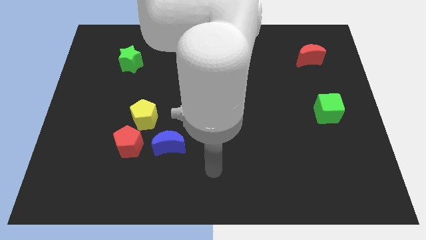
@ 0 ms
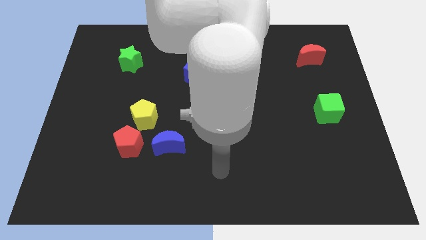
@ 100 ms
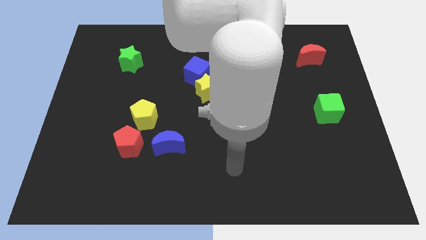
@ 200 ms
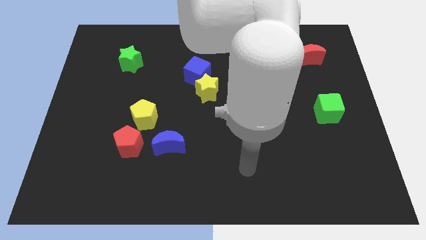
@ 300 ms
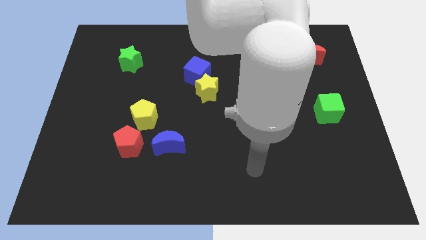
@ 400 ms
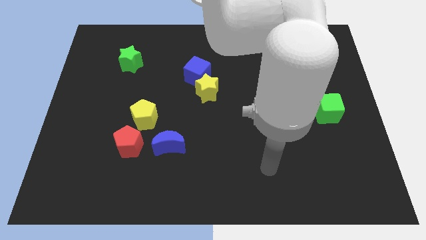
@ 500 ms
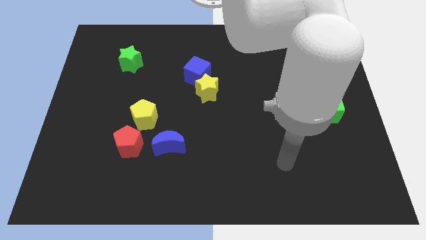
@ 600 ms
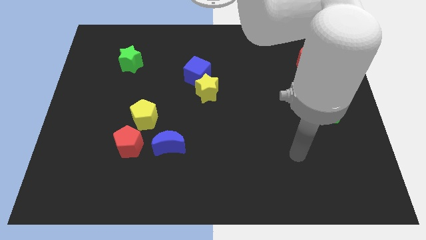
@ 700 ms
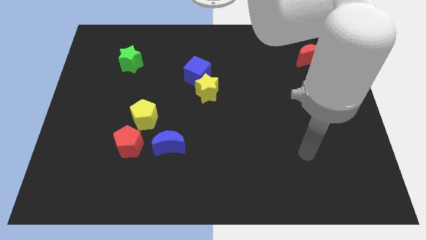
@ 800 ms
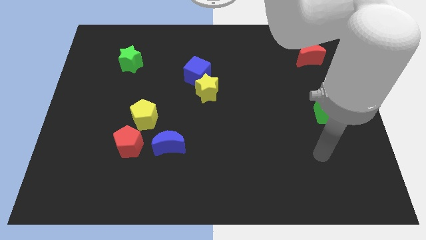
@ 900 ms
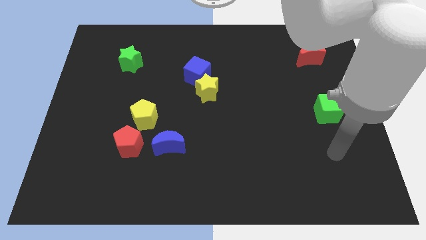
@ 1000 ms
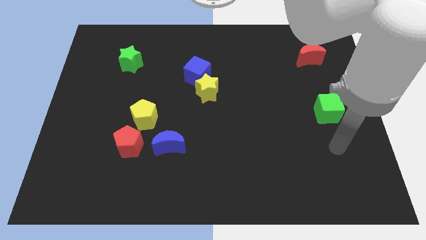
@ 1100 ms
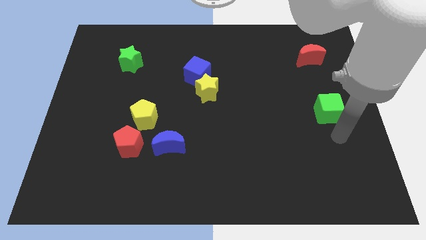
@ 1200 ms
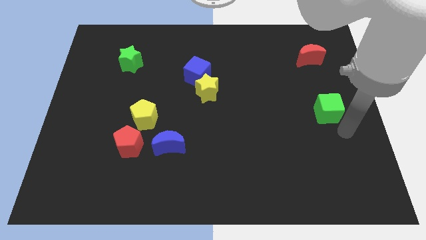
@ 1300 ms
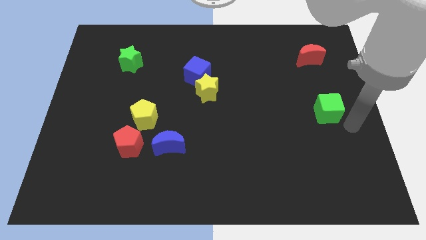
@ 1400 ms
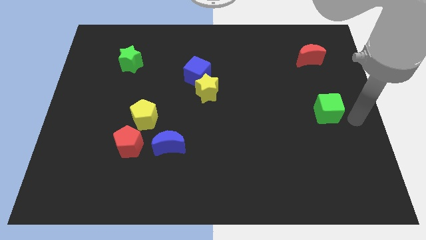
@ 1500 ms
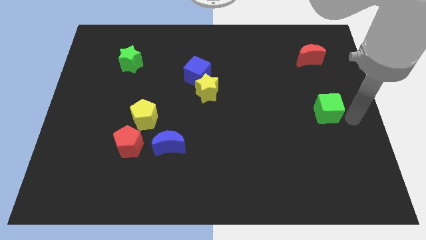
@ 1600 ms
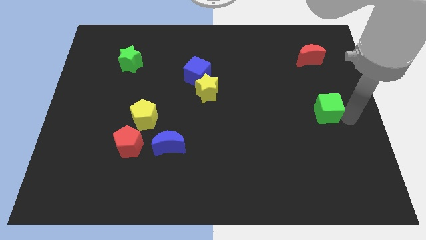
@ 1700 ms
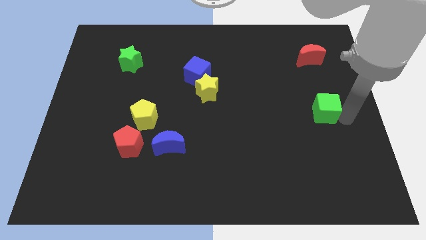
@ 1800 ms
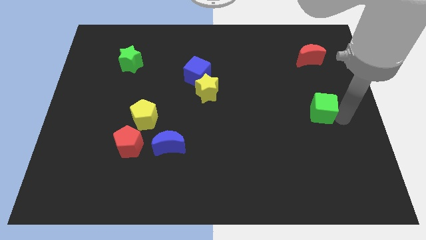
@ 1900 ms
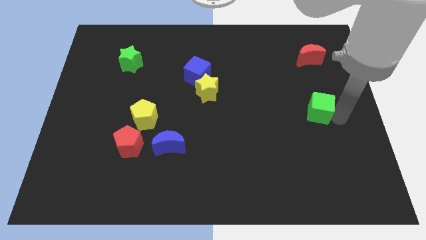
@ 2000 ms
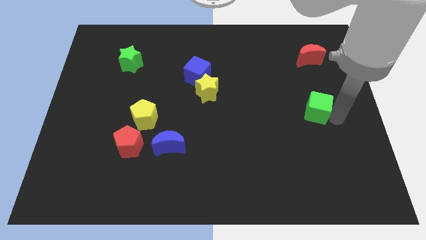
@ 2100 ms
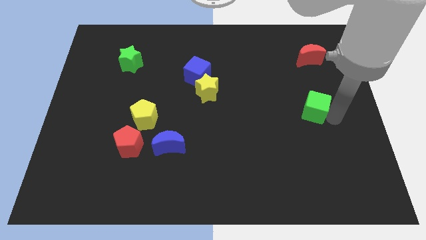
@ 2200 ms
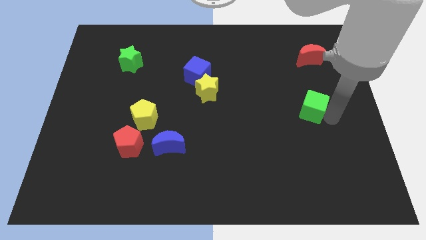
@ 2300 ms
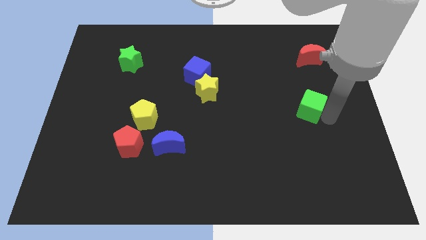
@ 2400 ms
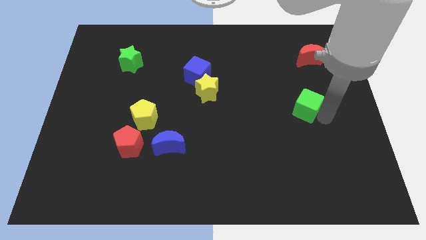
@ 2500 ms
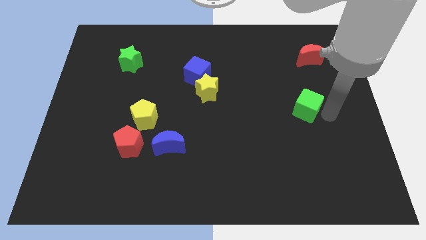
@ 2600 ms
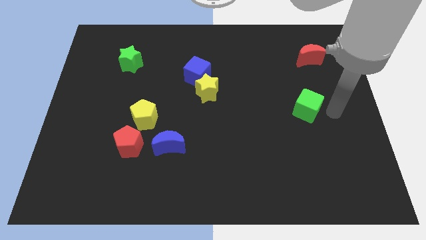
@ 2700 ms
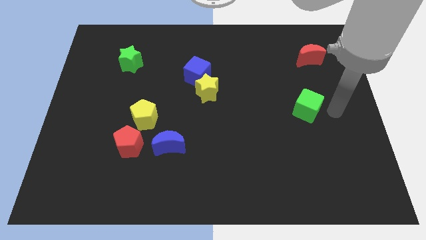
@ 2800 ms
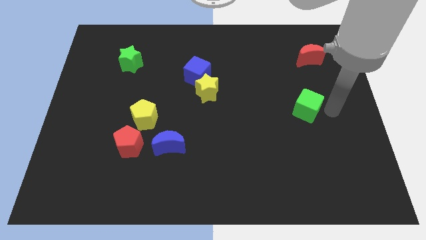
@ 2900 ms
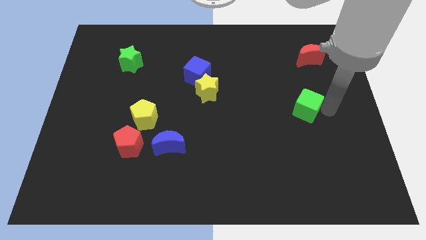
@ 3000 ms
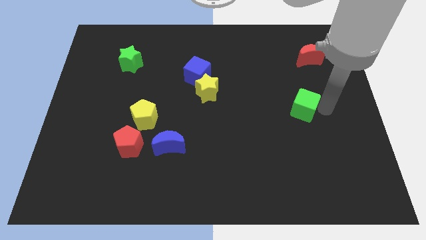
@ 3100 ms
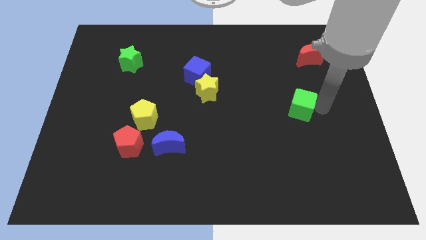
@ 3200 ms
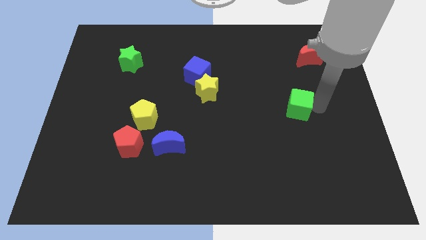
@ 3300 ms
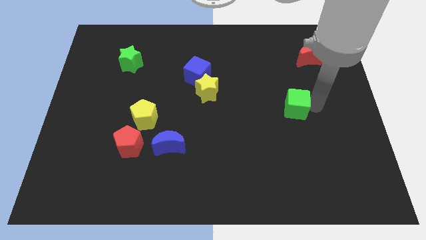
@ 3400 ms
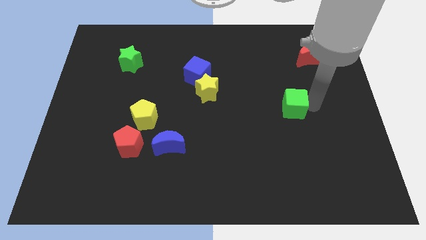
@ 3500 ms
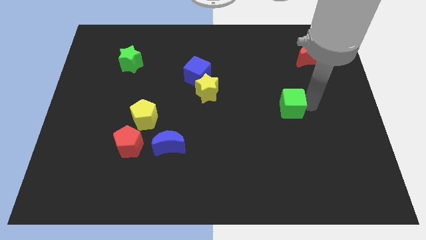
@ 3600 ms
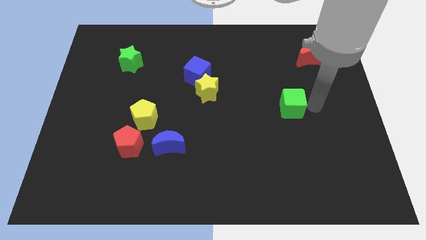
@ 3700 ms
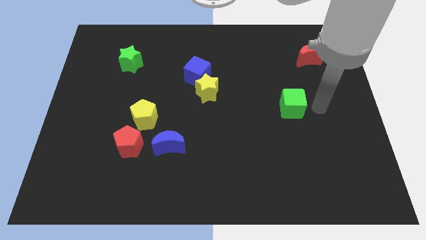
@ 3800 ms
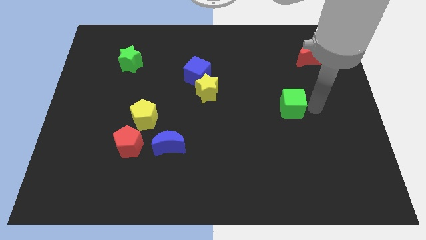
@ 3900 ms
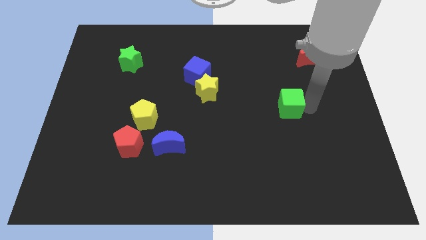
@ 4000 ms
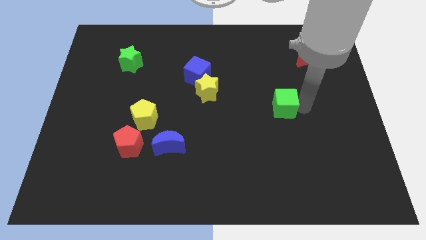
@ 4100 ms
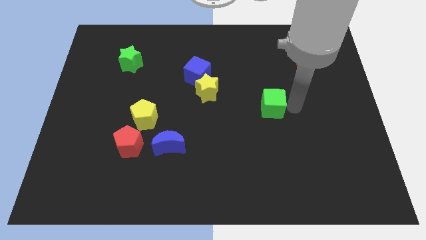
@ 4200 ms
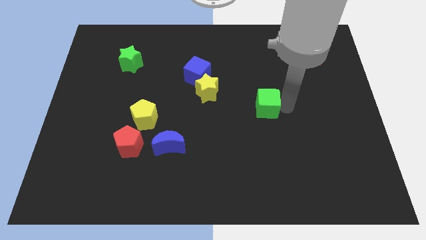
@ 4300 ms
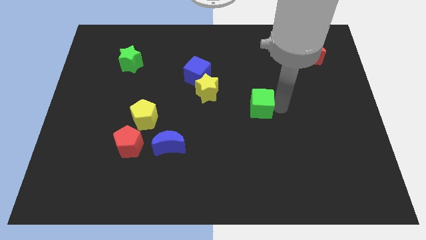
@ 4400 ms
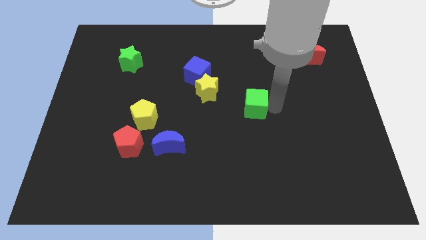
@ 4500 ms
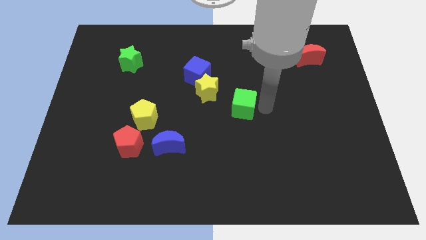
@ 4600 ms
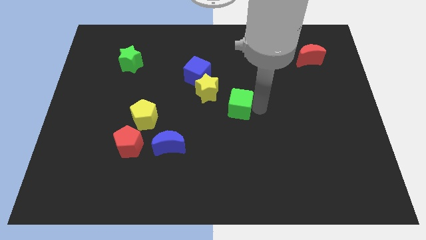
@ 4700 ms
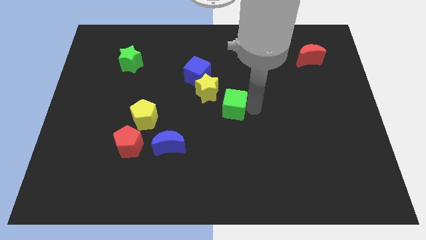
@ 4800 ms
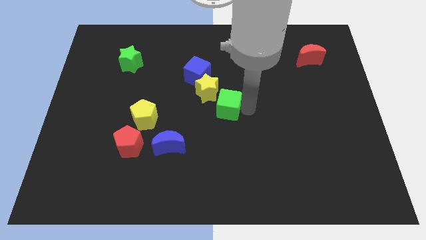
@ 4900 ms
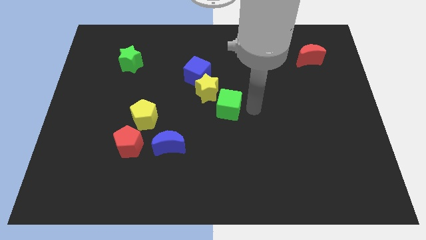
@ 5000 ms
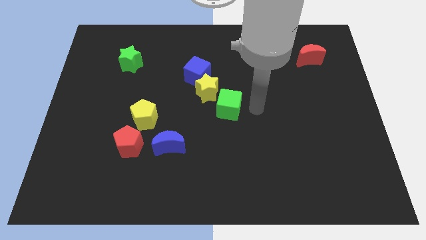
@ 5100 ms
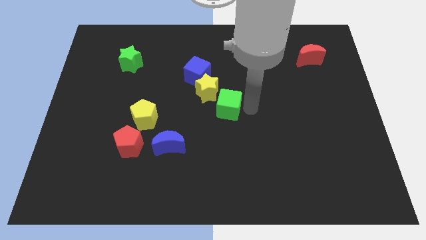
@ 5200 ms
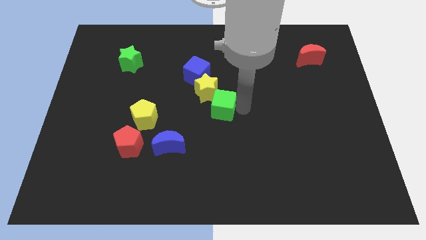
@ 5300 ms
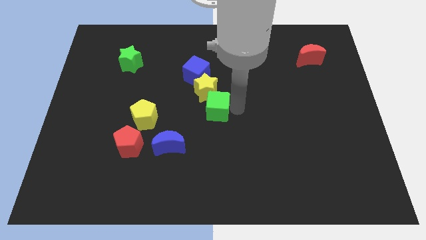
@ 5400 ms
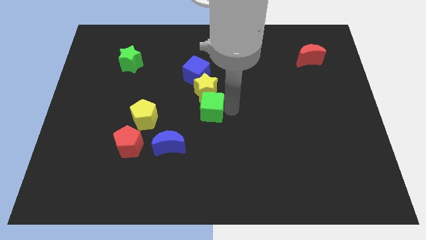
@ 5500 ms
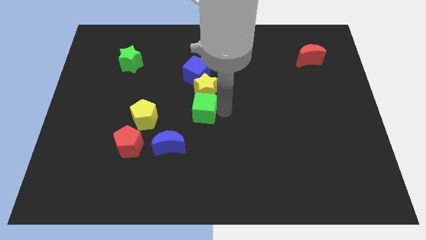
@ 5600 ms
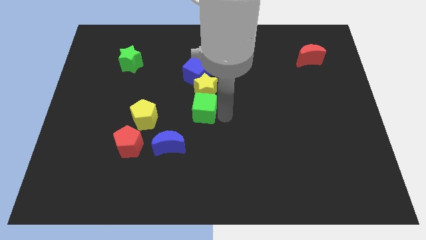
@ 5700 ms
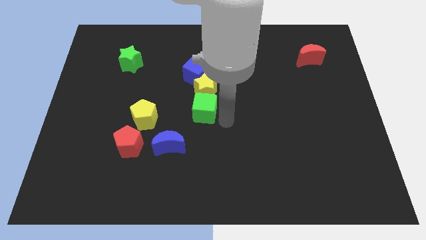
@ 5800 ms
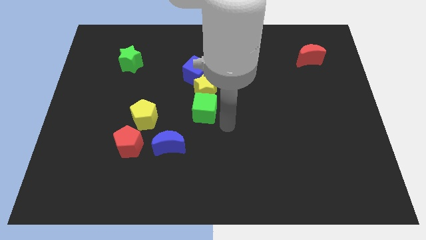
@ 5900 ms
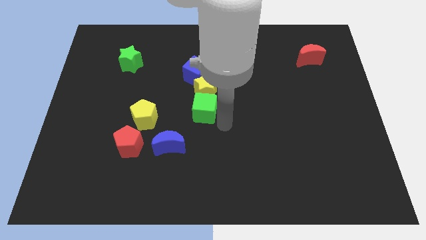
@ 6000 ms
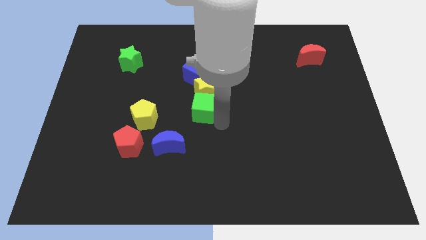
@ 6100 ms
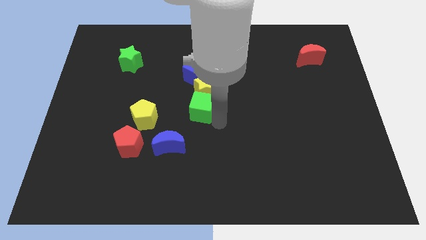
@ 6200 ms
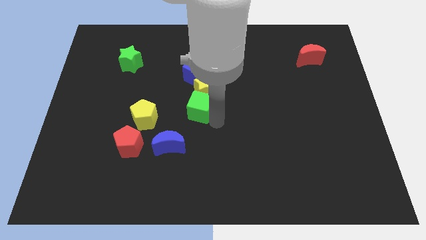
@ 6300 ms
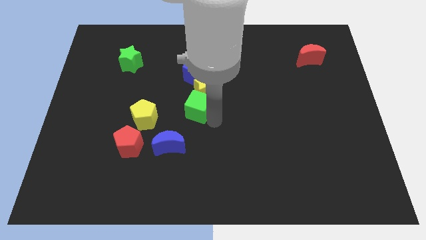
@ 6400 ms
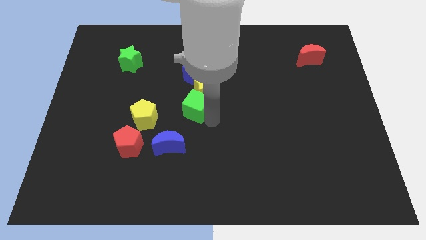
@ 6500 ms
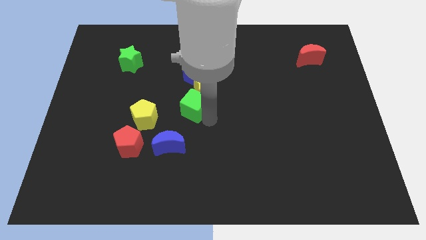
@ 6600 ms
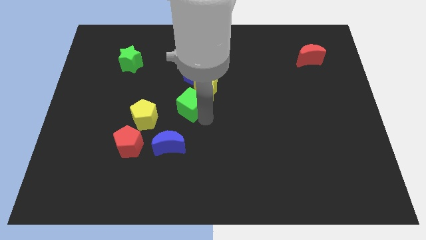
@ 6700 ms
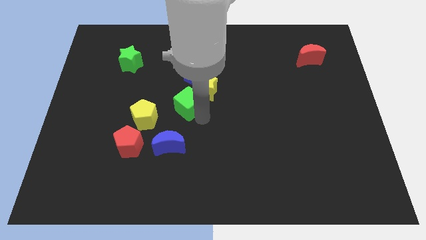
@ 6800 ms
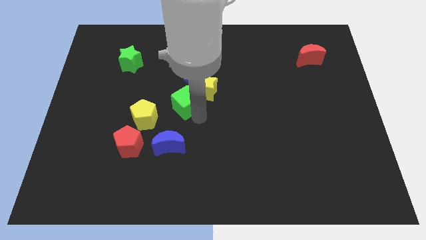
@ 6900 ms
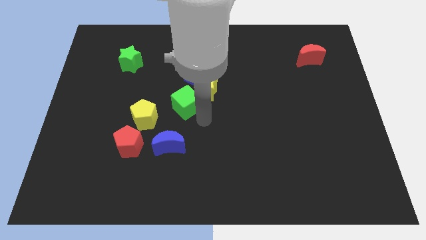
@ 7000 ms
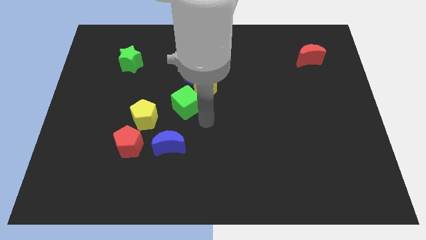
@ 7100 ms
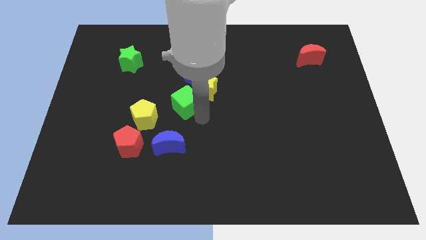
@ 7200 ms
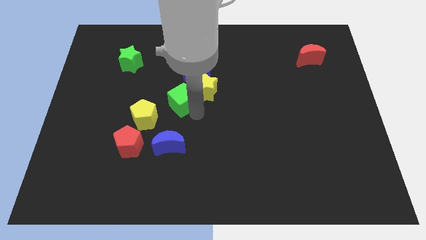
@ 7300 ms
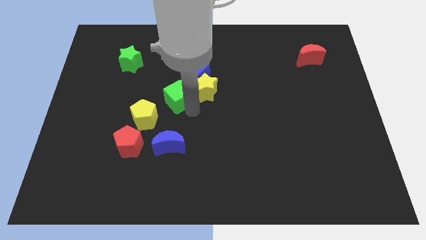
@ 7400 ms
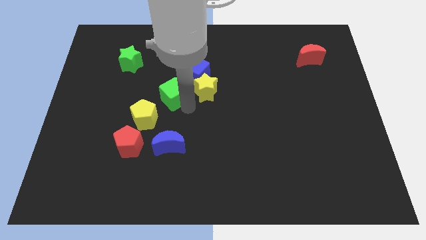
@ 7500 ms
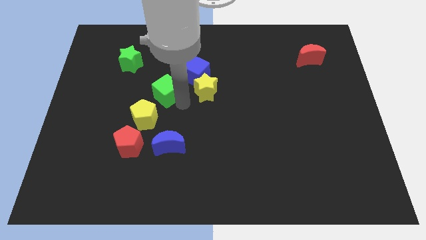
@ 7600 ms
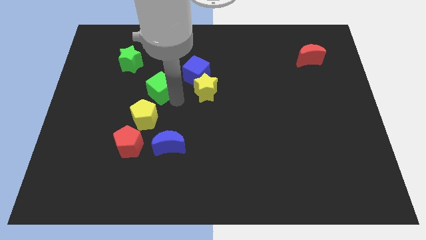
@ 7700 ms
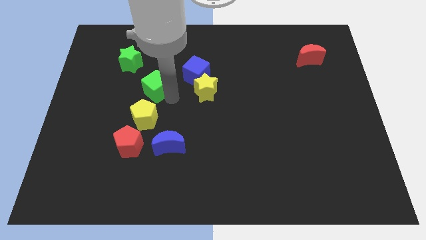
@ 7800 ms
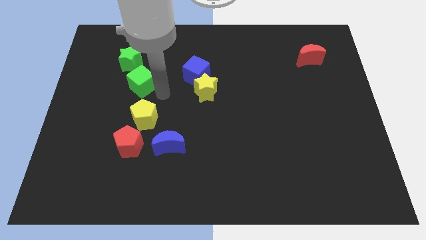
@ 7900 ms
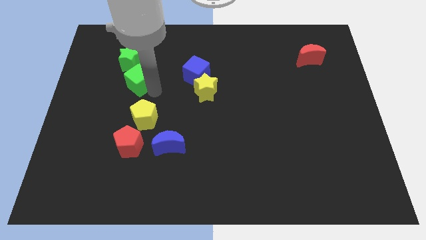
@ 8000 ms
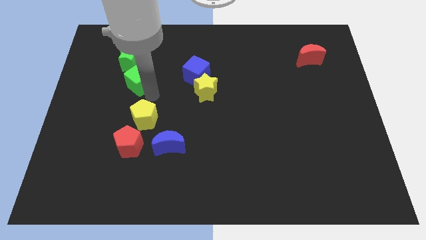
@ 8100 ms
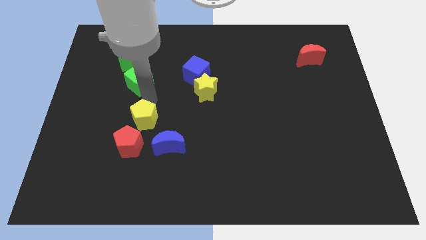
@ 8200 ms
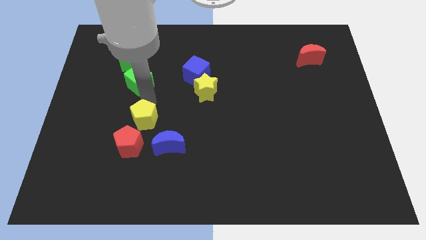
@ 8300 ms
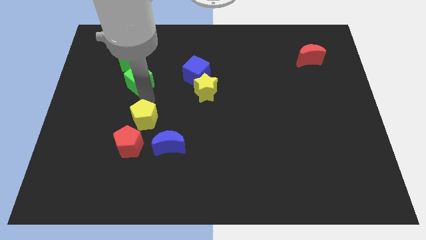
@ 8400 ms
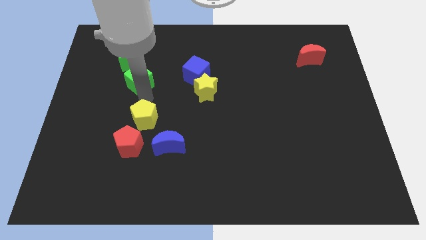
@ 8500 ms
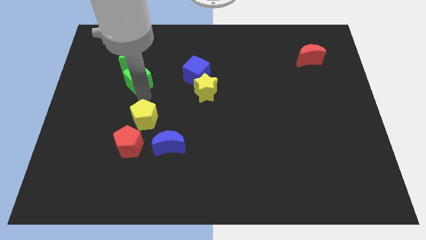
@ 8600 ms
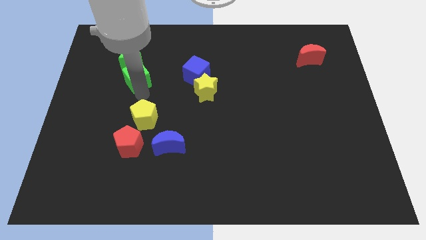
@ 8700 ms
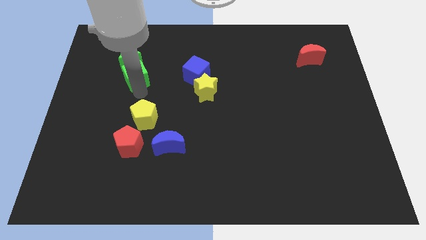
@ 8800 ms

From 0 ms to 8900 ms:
slide the green cube next to the green star
